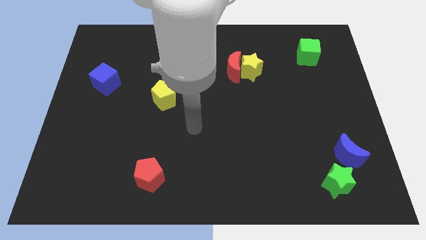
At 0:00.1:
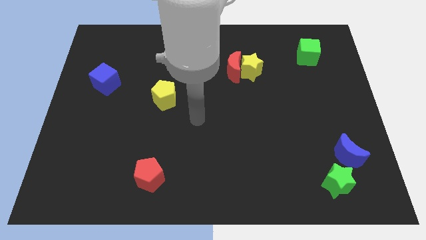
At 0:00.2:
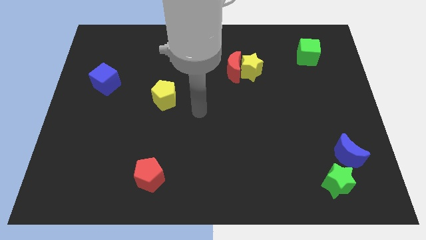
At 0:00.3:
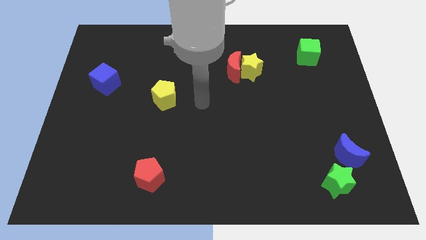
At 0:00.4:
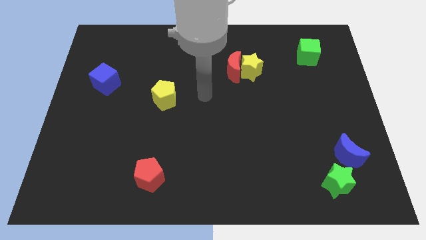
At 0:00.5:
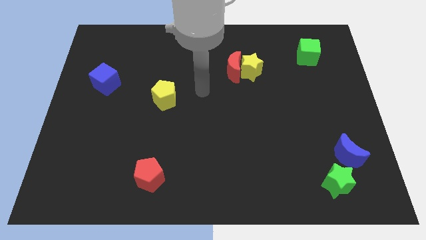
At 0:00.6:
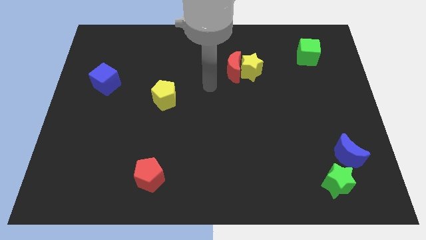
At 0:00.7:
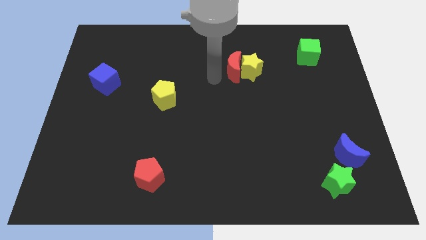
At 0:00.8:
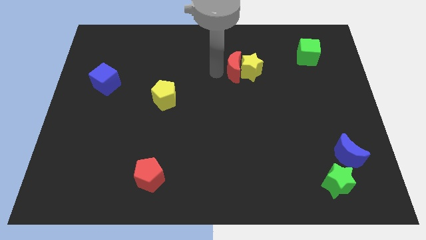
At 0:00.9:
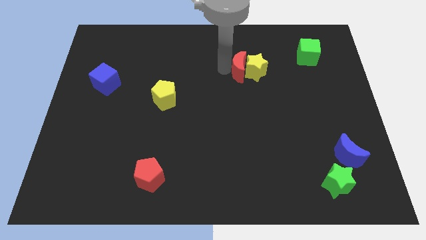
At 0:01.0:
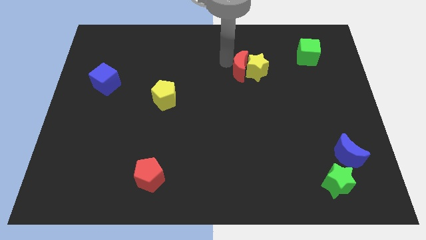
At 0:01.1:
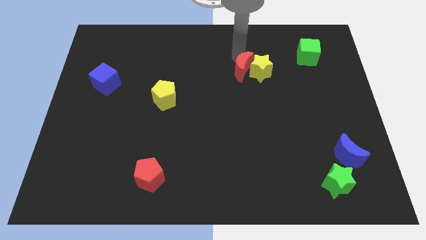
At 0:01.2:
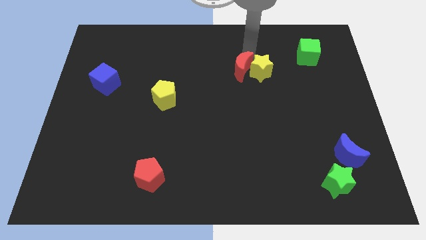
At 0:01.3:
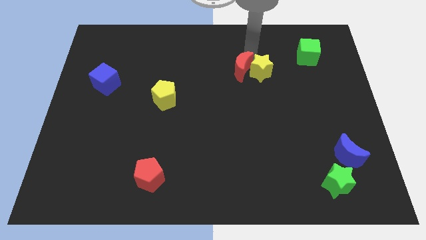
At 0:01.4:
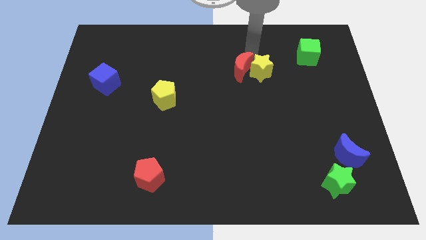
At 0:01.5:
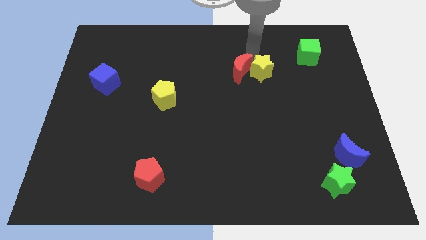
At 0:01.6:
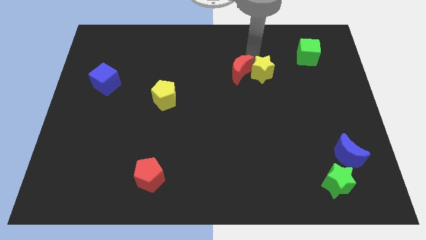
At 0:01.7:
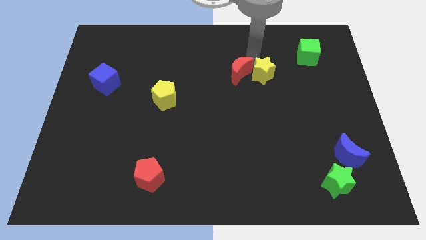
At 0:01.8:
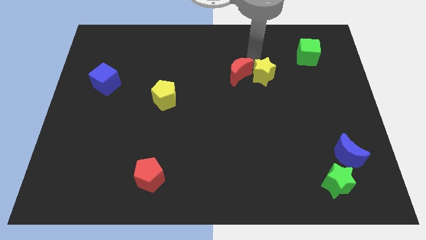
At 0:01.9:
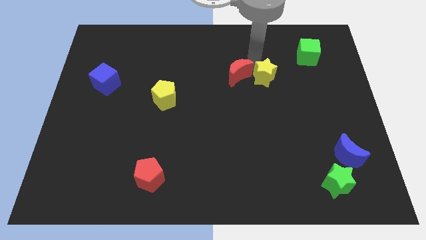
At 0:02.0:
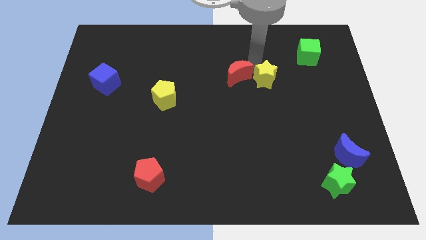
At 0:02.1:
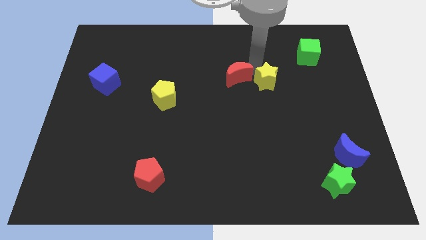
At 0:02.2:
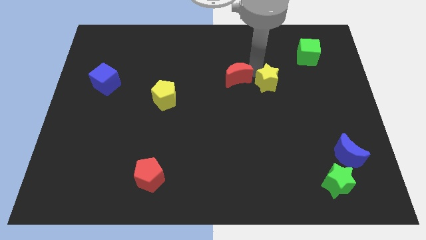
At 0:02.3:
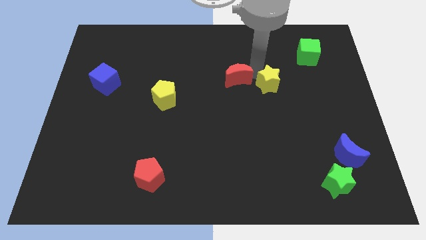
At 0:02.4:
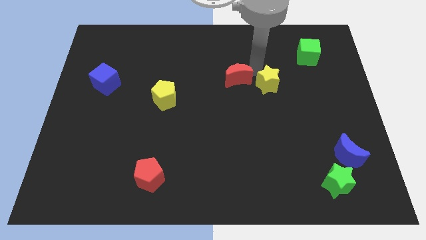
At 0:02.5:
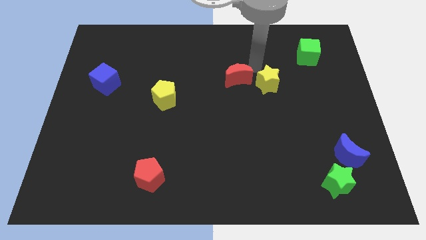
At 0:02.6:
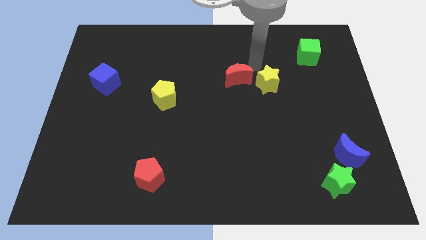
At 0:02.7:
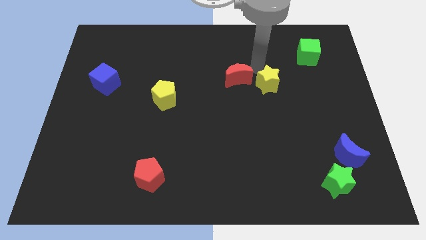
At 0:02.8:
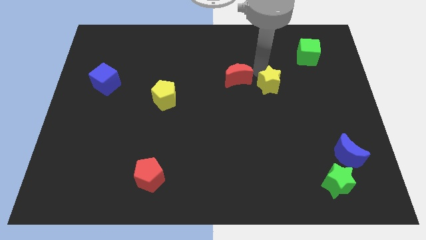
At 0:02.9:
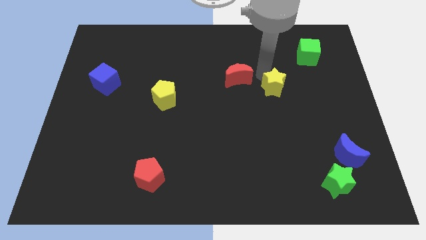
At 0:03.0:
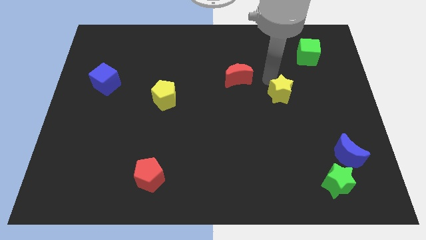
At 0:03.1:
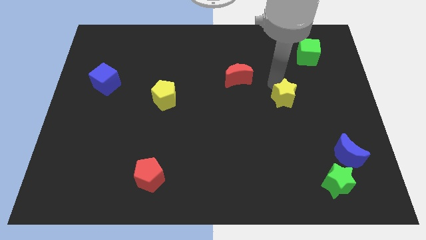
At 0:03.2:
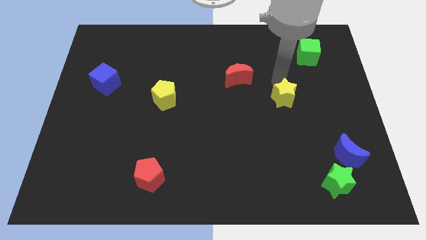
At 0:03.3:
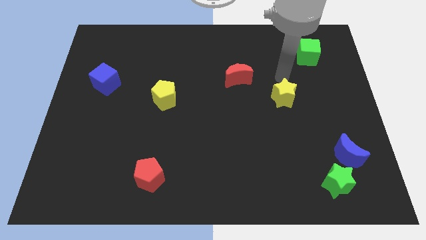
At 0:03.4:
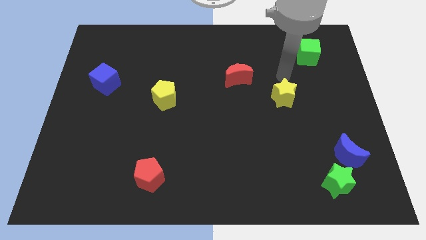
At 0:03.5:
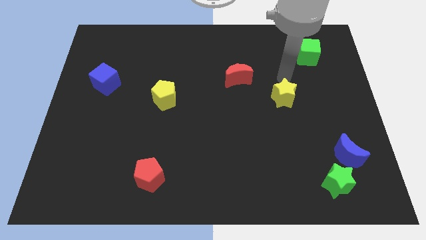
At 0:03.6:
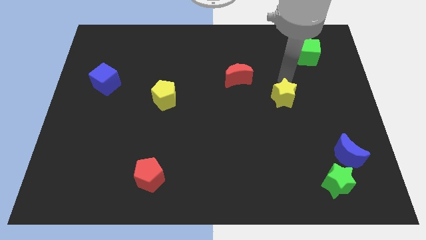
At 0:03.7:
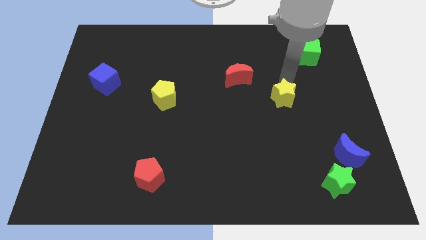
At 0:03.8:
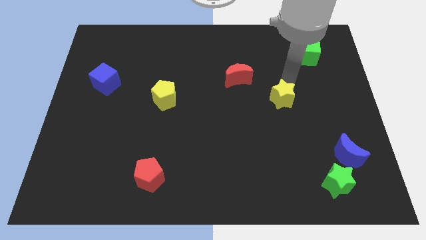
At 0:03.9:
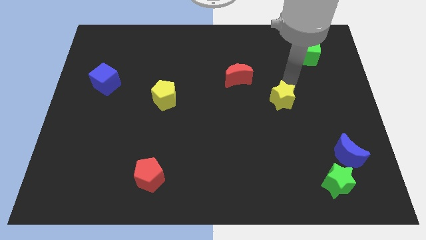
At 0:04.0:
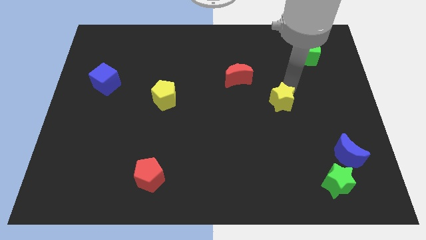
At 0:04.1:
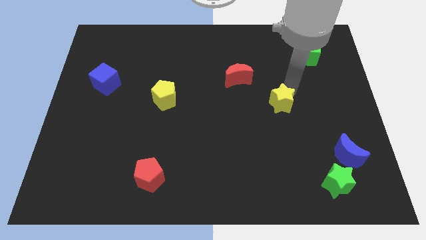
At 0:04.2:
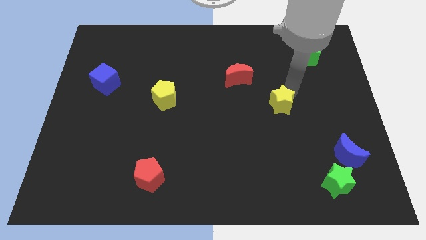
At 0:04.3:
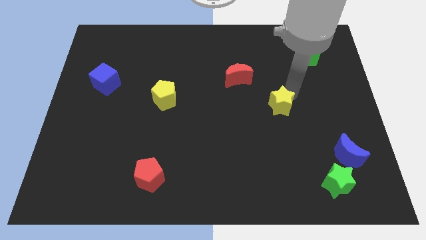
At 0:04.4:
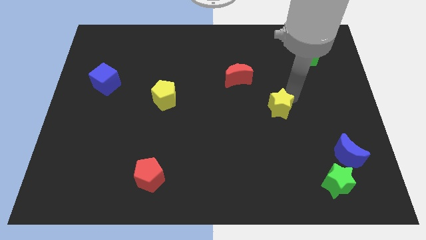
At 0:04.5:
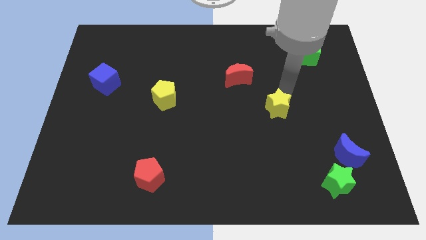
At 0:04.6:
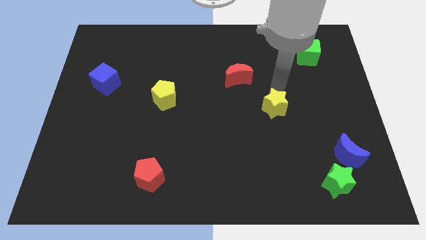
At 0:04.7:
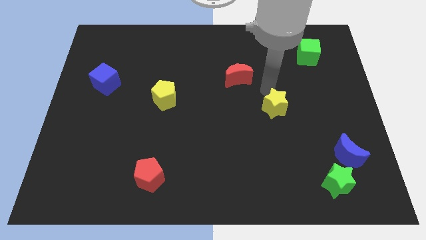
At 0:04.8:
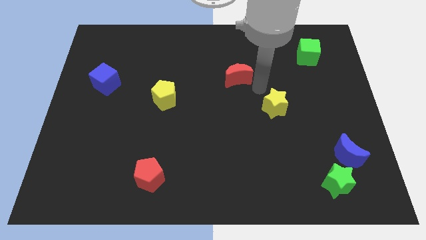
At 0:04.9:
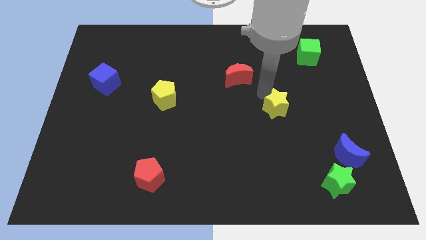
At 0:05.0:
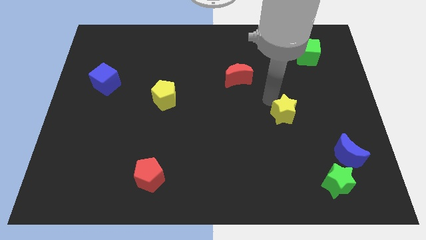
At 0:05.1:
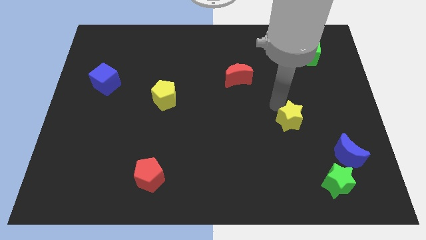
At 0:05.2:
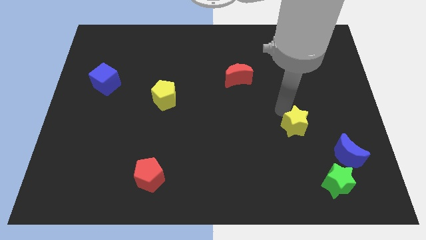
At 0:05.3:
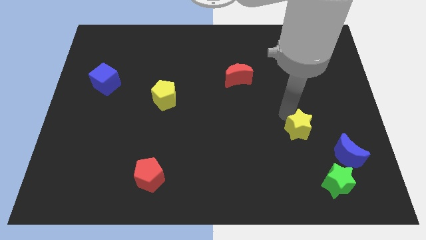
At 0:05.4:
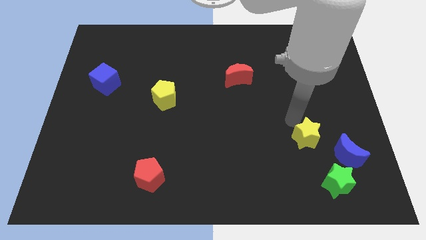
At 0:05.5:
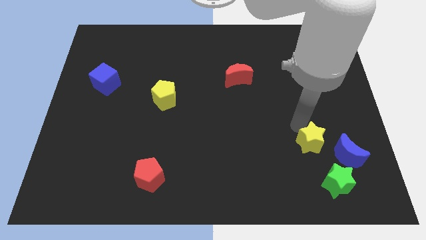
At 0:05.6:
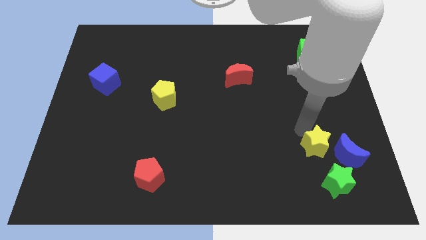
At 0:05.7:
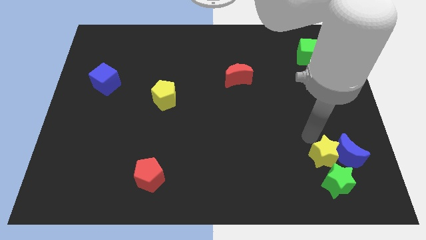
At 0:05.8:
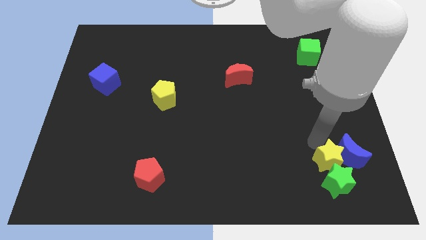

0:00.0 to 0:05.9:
move the yellow star towards the green star

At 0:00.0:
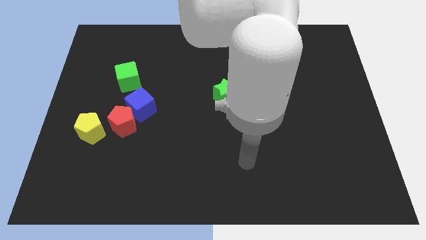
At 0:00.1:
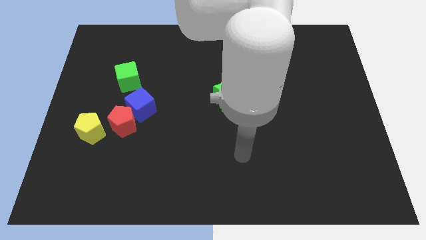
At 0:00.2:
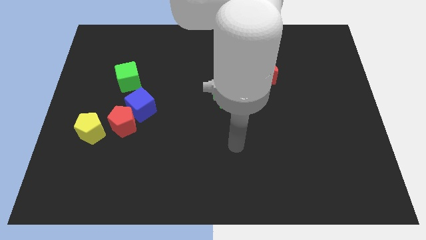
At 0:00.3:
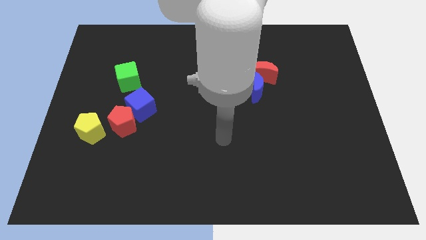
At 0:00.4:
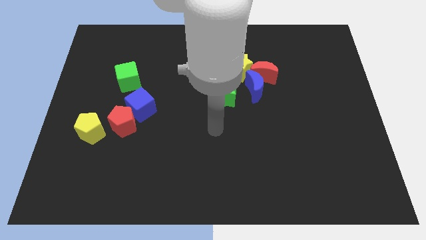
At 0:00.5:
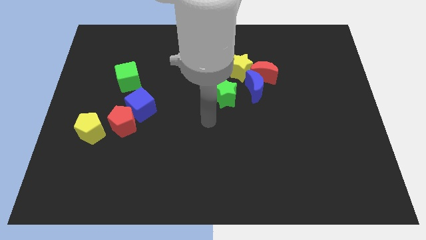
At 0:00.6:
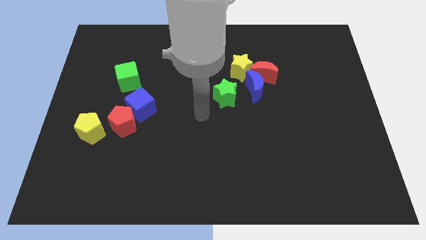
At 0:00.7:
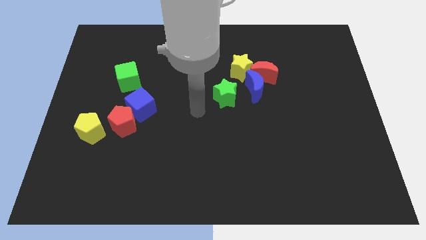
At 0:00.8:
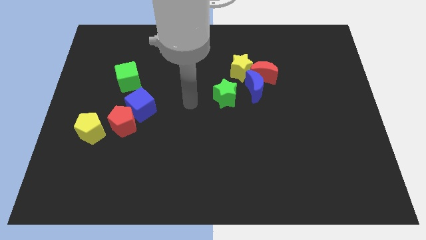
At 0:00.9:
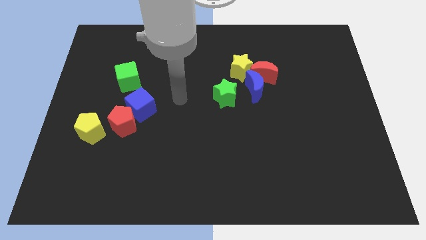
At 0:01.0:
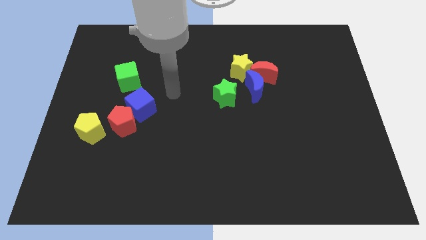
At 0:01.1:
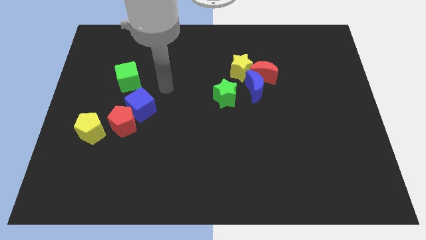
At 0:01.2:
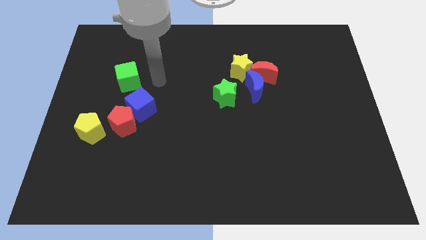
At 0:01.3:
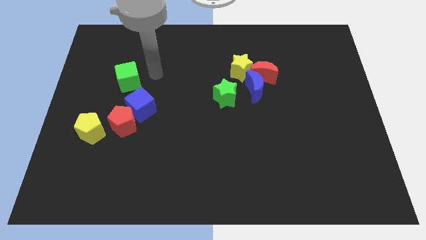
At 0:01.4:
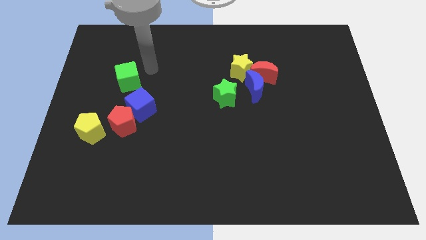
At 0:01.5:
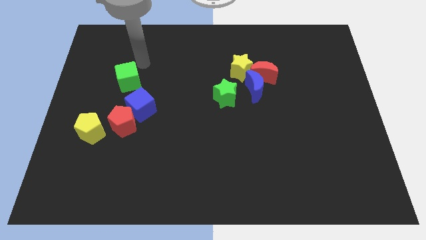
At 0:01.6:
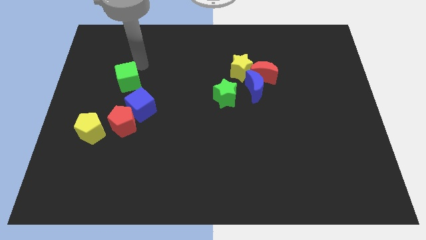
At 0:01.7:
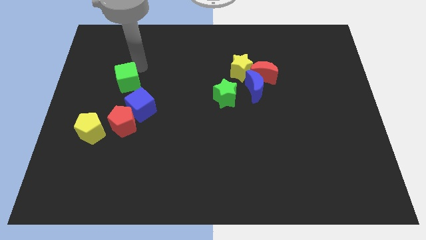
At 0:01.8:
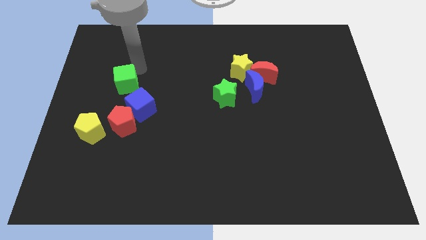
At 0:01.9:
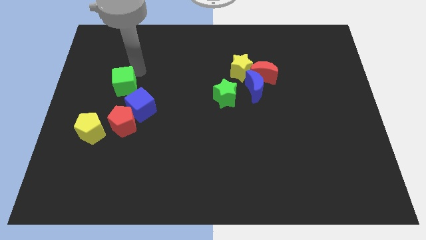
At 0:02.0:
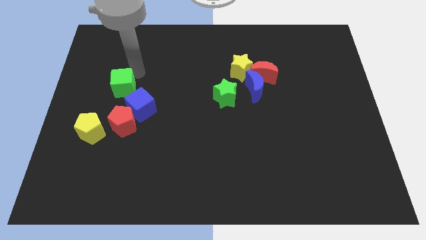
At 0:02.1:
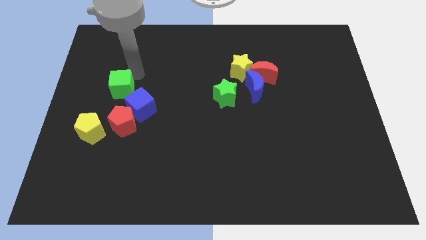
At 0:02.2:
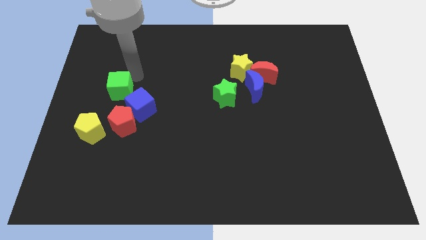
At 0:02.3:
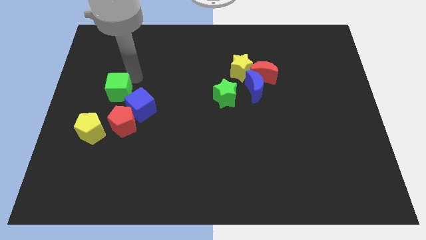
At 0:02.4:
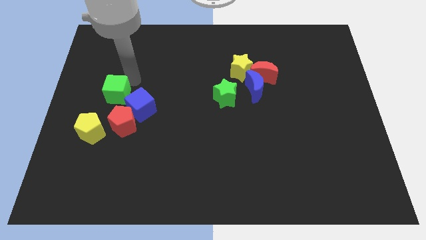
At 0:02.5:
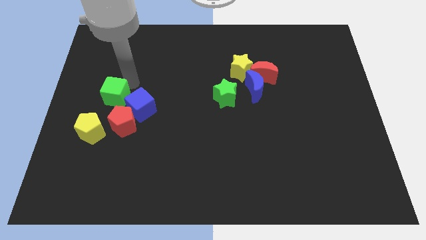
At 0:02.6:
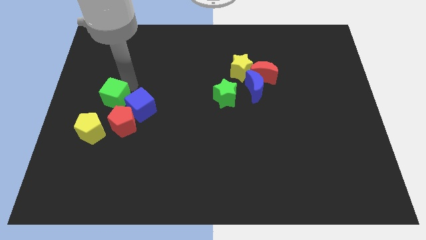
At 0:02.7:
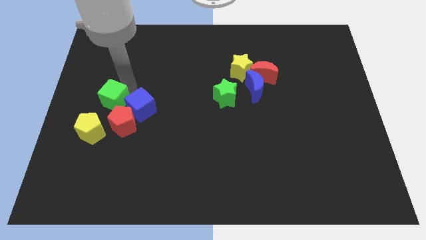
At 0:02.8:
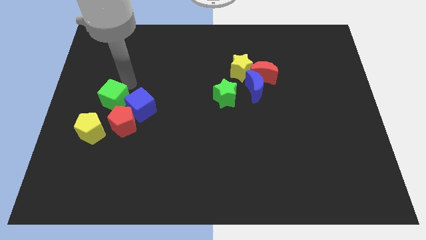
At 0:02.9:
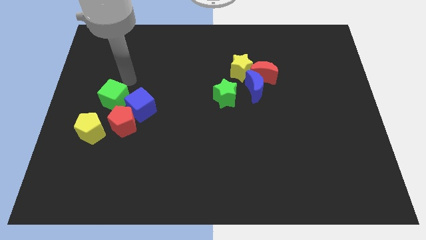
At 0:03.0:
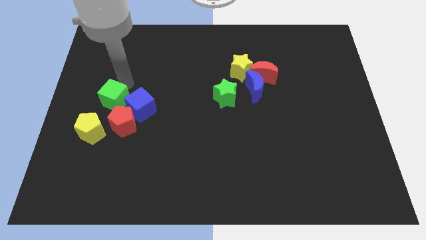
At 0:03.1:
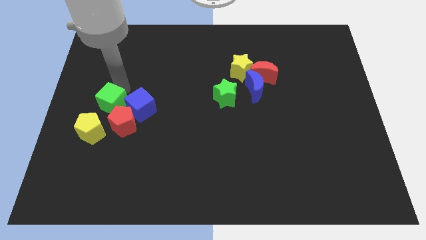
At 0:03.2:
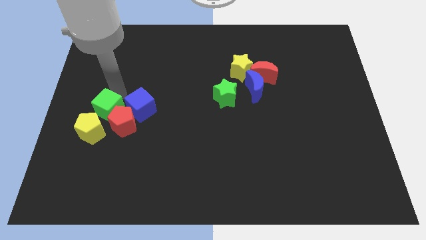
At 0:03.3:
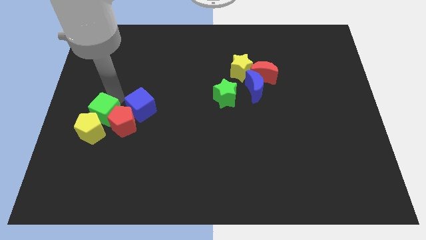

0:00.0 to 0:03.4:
move the green cube next to the yellow pentagon
